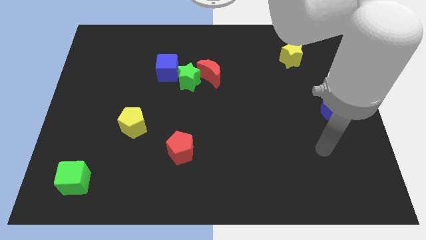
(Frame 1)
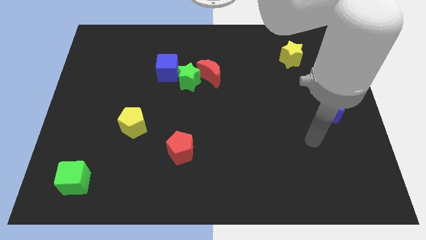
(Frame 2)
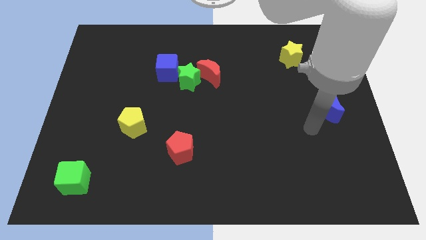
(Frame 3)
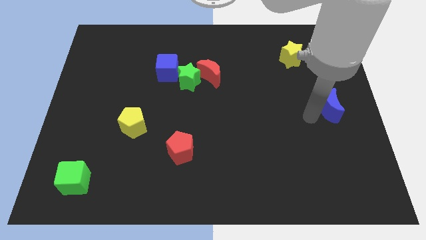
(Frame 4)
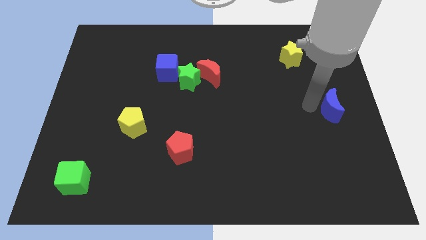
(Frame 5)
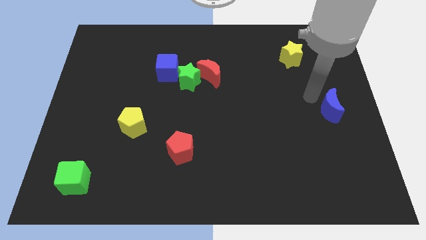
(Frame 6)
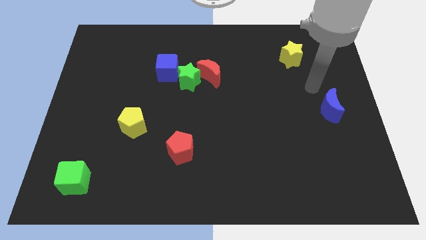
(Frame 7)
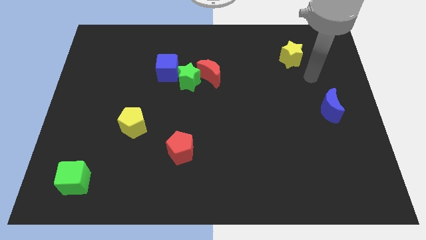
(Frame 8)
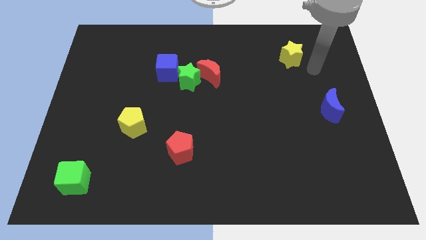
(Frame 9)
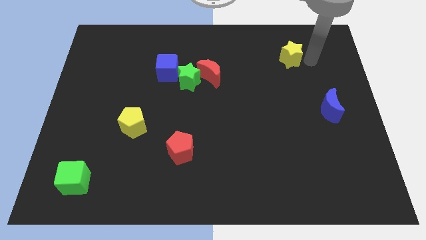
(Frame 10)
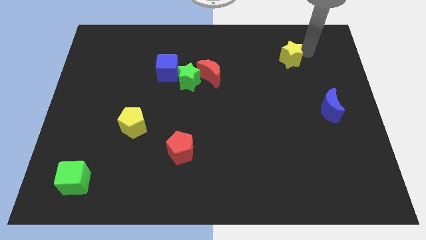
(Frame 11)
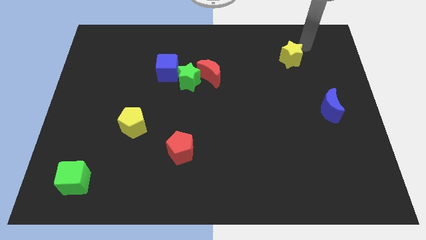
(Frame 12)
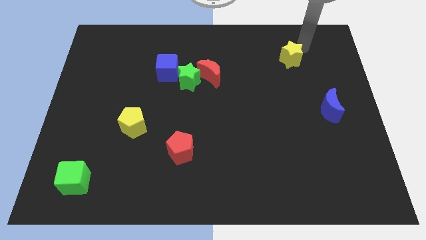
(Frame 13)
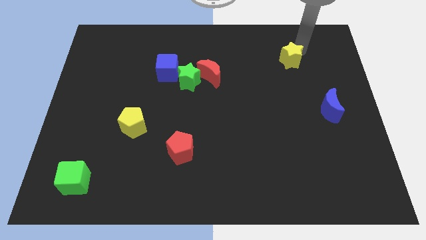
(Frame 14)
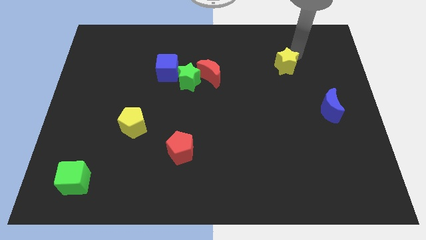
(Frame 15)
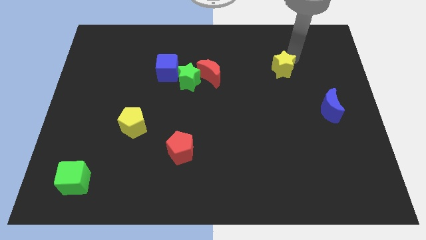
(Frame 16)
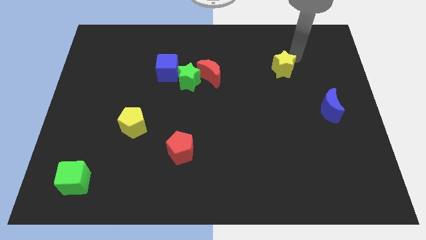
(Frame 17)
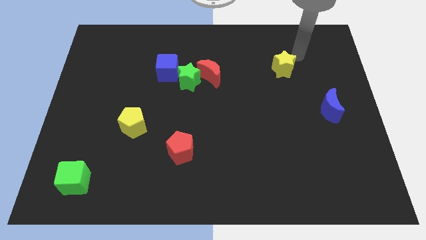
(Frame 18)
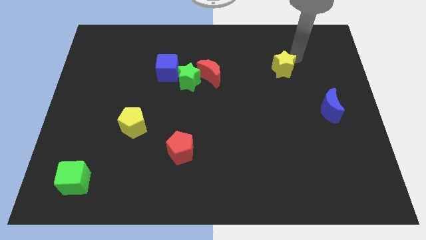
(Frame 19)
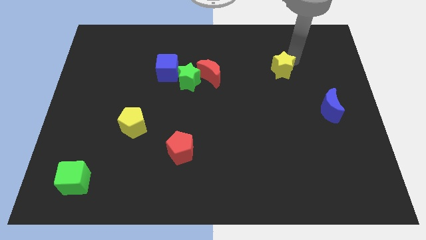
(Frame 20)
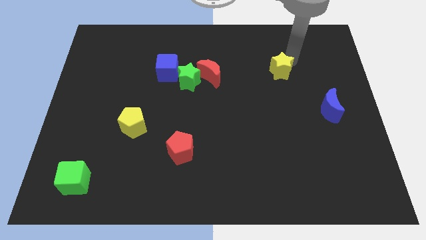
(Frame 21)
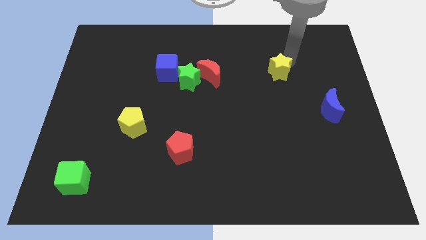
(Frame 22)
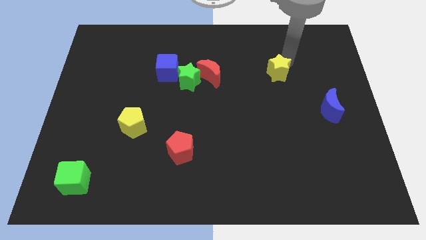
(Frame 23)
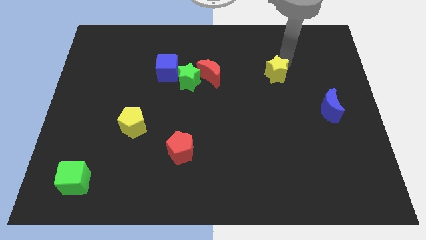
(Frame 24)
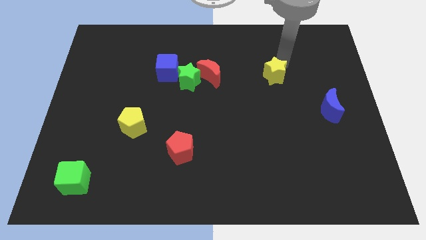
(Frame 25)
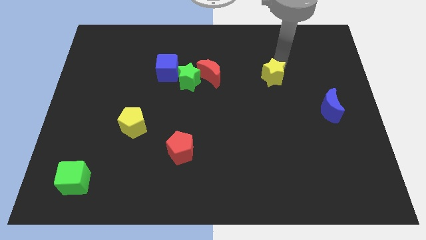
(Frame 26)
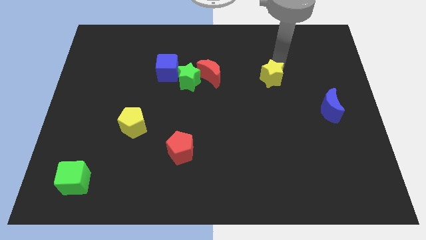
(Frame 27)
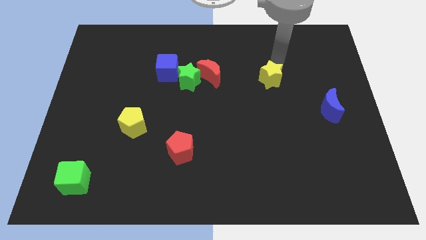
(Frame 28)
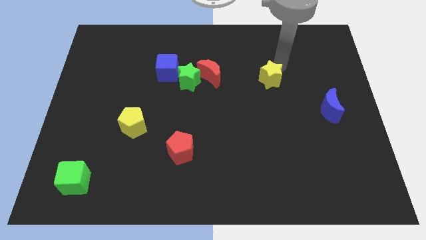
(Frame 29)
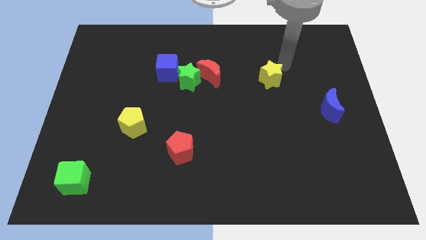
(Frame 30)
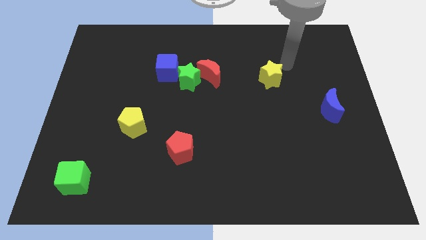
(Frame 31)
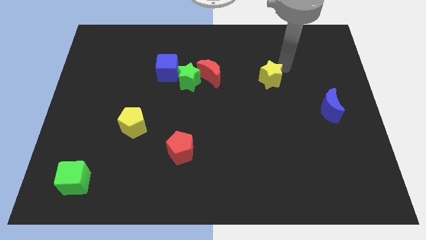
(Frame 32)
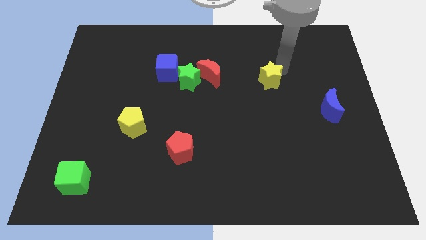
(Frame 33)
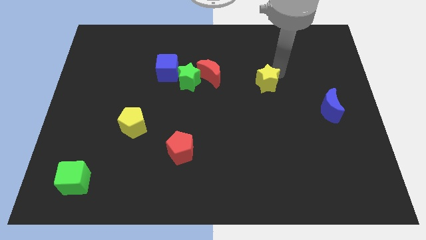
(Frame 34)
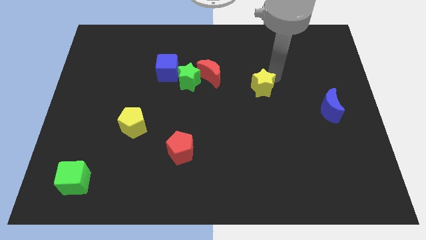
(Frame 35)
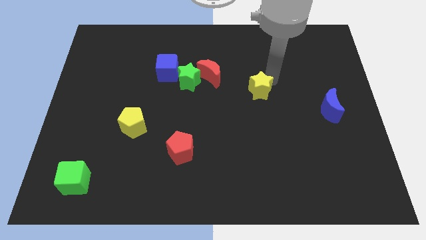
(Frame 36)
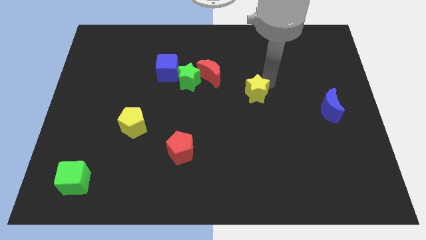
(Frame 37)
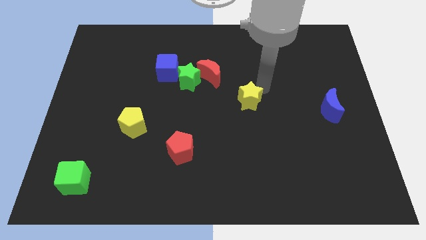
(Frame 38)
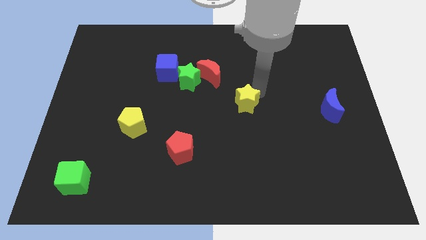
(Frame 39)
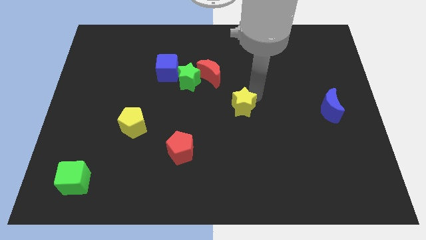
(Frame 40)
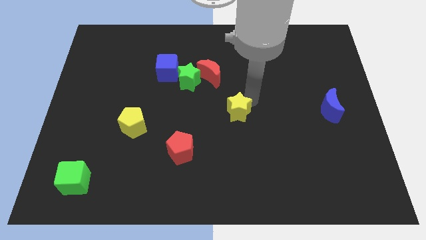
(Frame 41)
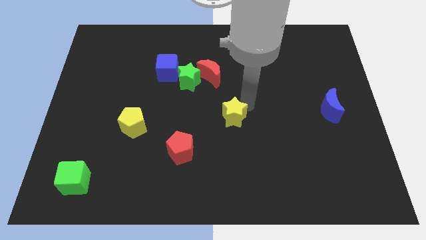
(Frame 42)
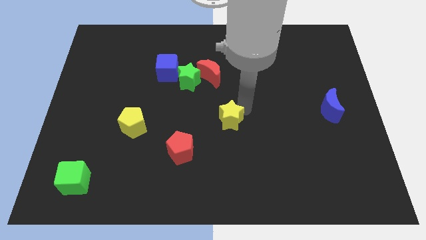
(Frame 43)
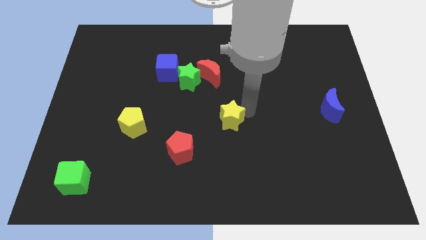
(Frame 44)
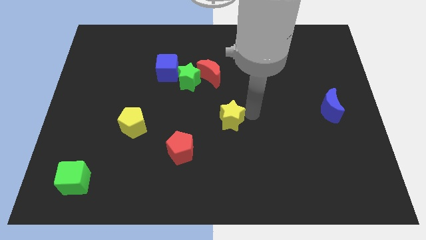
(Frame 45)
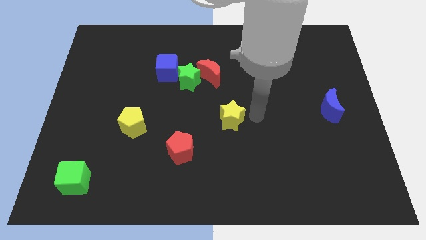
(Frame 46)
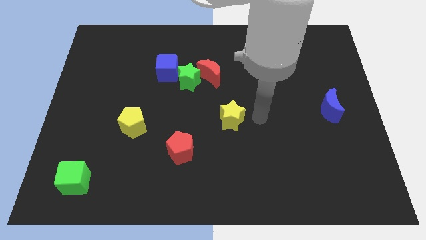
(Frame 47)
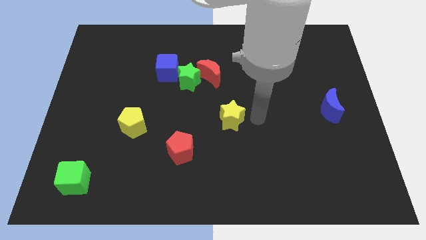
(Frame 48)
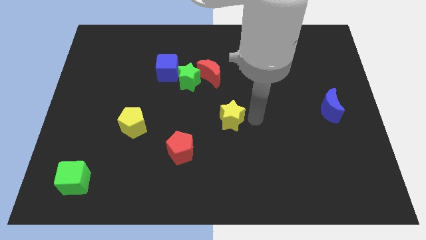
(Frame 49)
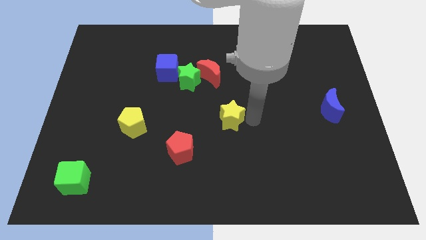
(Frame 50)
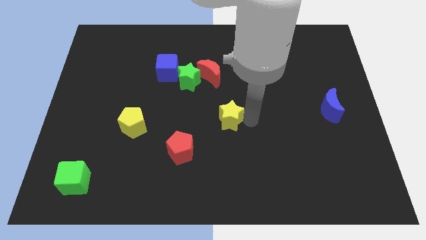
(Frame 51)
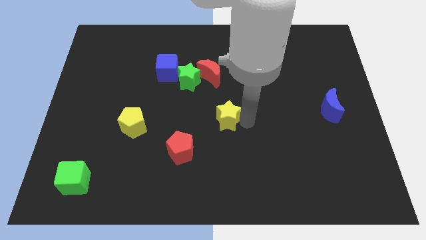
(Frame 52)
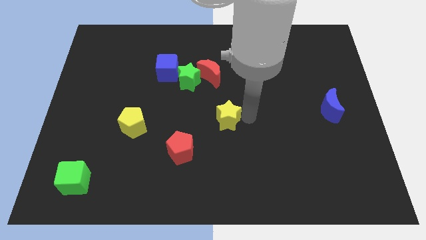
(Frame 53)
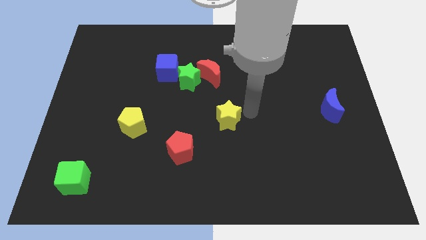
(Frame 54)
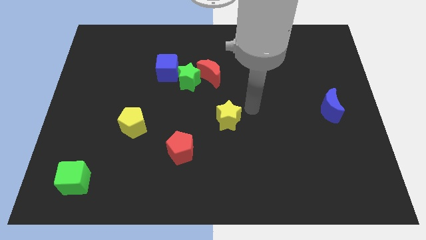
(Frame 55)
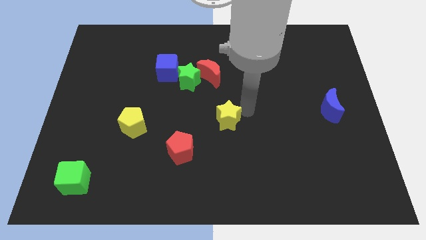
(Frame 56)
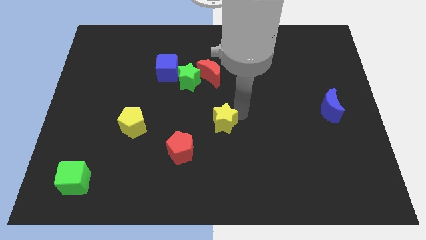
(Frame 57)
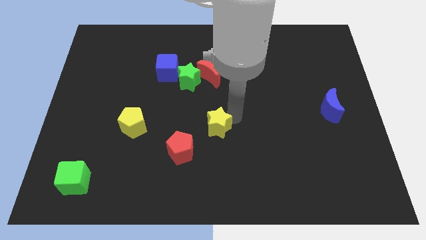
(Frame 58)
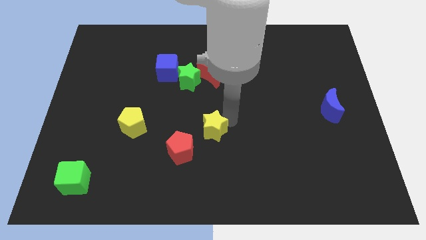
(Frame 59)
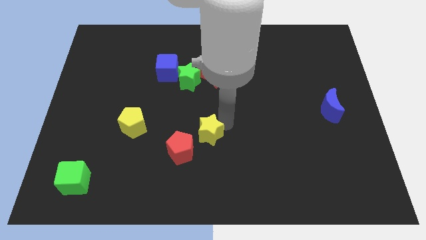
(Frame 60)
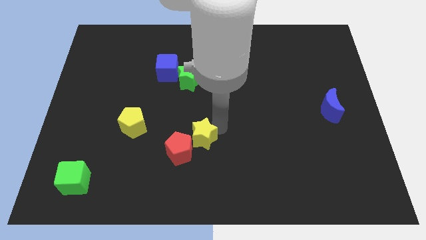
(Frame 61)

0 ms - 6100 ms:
move the yellow star next to the red pentagon

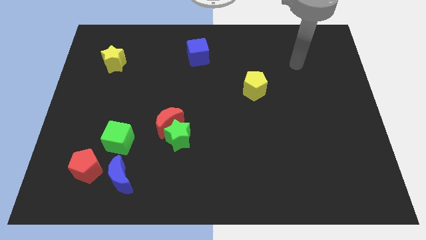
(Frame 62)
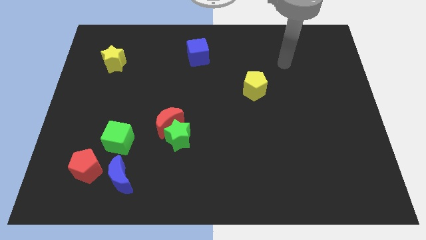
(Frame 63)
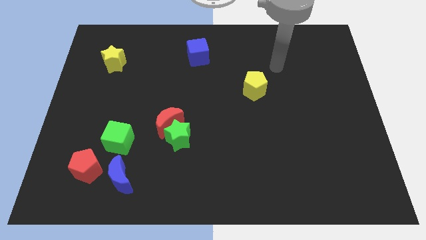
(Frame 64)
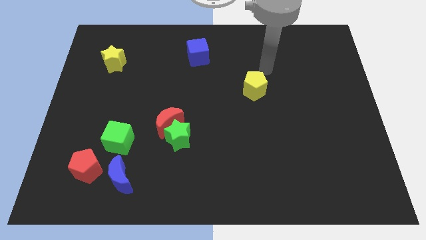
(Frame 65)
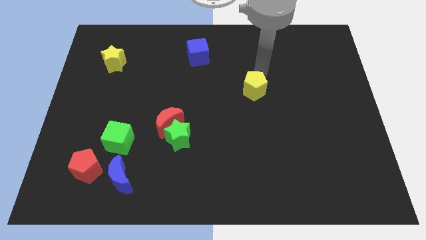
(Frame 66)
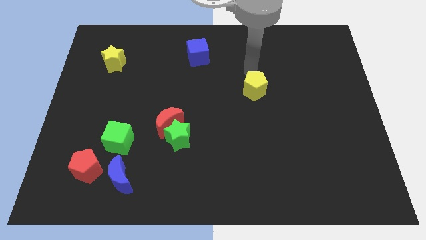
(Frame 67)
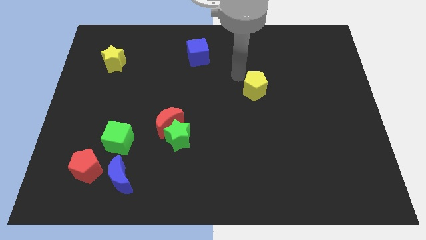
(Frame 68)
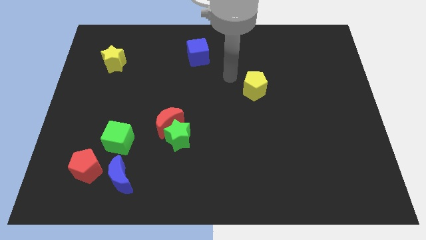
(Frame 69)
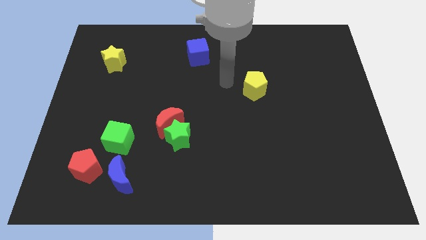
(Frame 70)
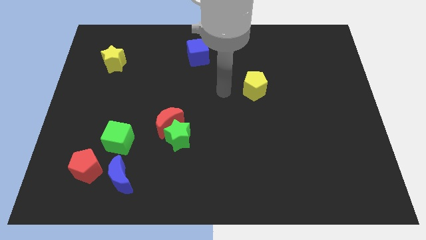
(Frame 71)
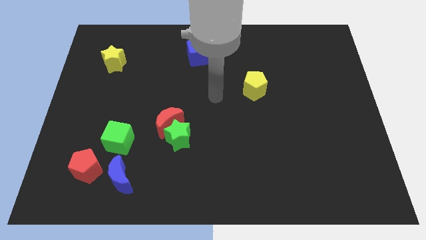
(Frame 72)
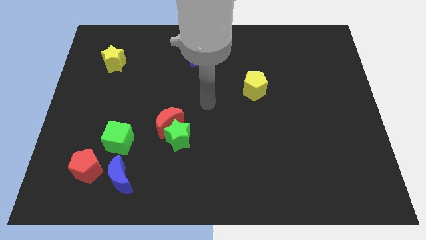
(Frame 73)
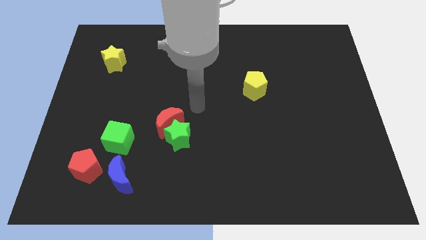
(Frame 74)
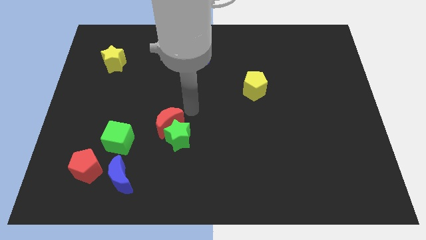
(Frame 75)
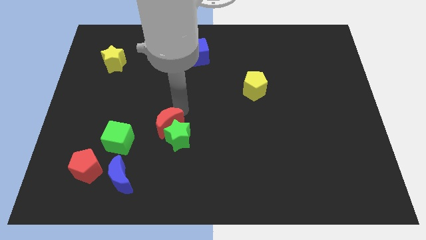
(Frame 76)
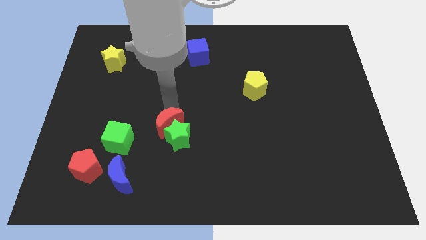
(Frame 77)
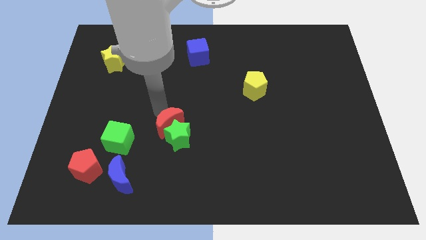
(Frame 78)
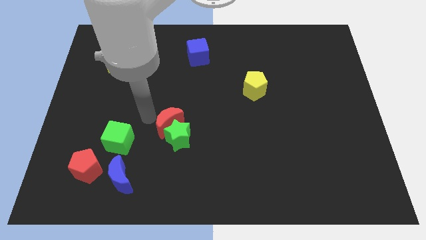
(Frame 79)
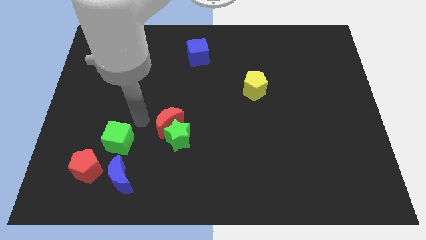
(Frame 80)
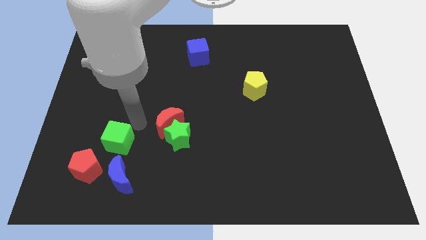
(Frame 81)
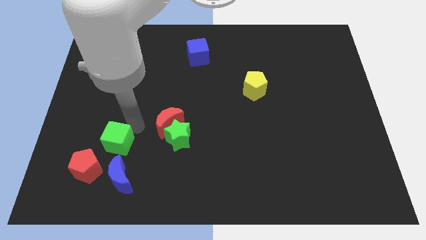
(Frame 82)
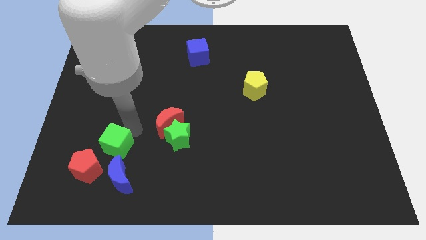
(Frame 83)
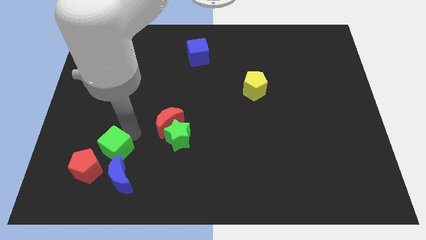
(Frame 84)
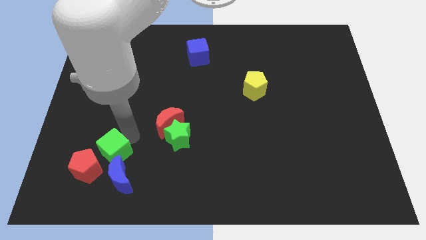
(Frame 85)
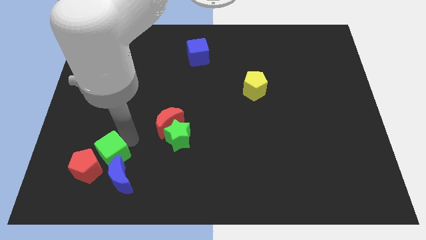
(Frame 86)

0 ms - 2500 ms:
move the green cube towards the red pentagon
